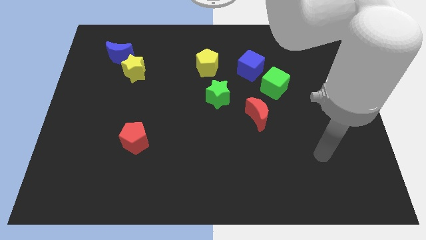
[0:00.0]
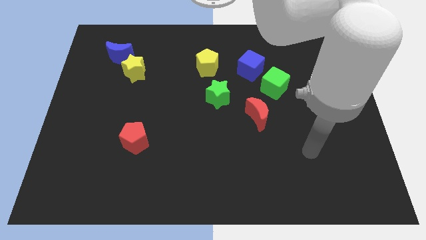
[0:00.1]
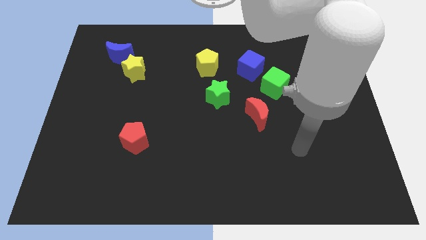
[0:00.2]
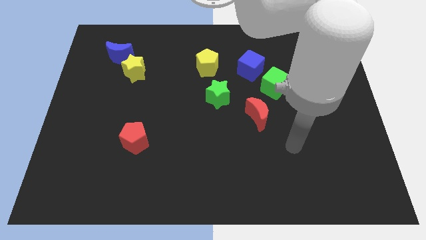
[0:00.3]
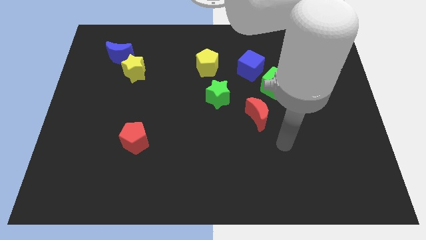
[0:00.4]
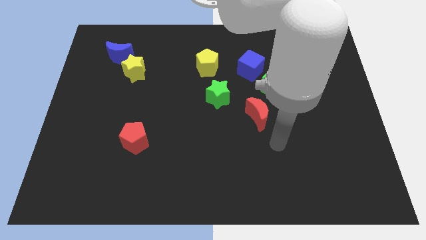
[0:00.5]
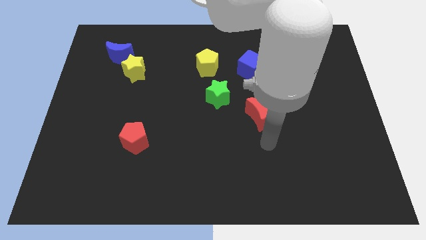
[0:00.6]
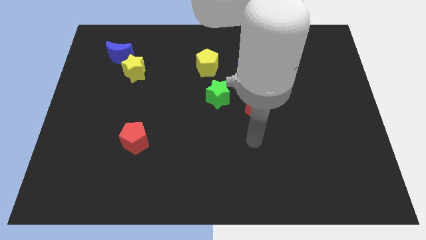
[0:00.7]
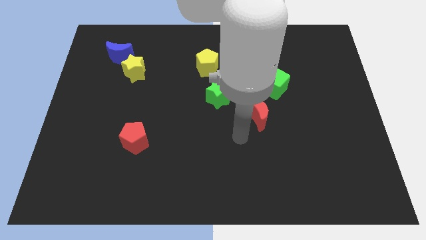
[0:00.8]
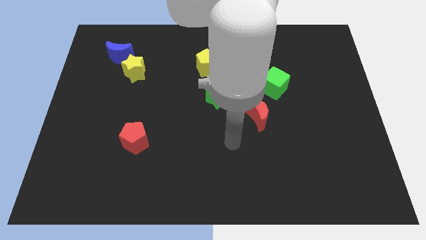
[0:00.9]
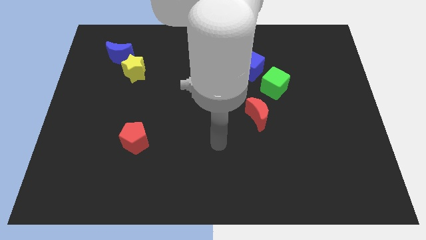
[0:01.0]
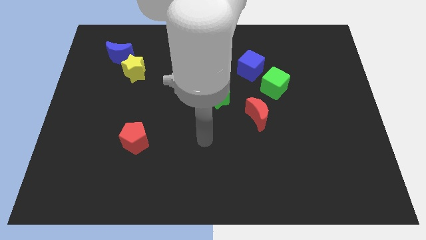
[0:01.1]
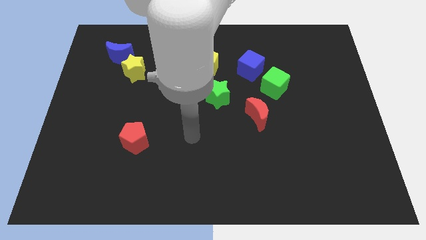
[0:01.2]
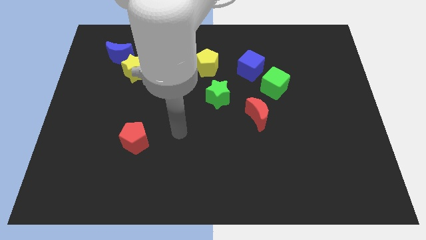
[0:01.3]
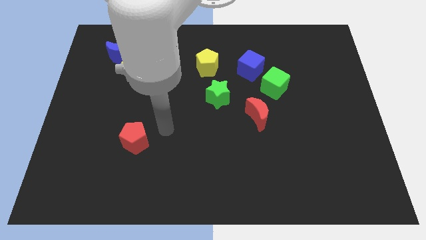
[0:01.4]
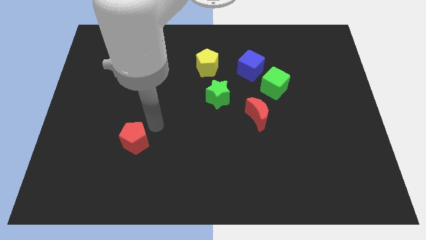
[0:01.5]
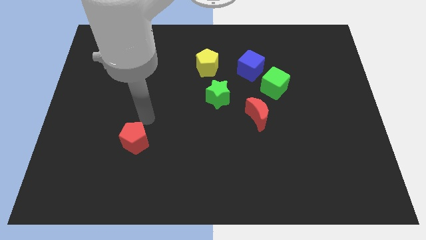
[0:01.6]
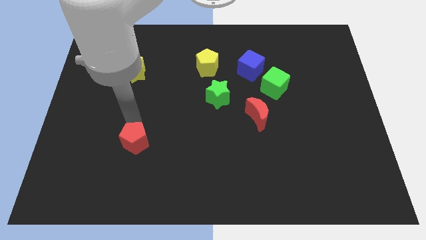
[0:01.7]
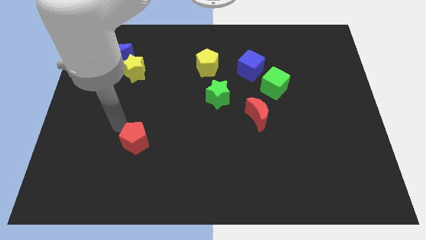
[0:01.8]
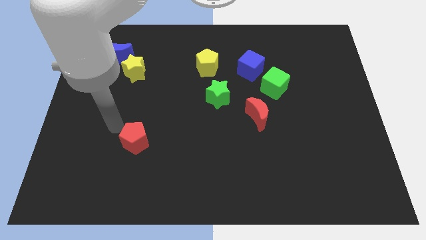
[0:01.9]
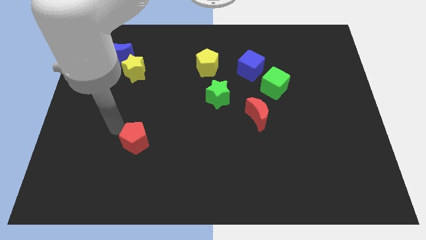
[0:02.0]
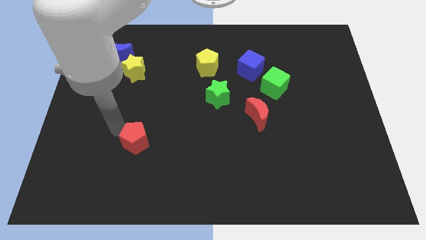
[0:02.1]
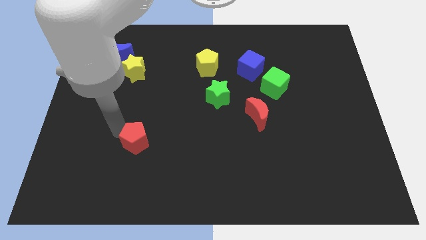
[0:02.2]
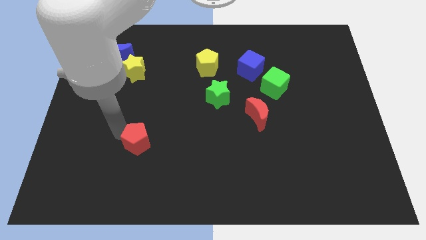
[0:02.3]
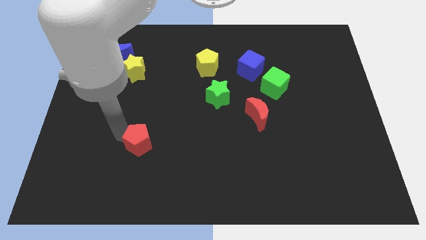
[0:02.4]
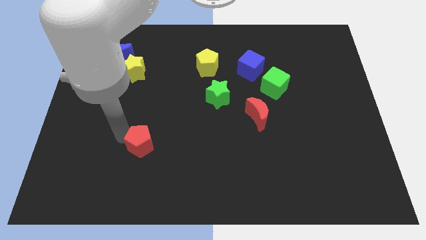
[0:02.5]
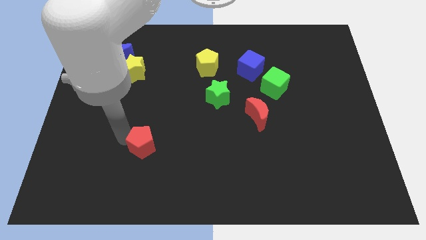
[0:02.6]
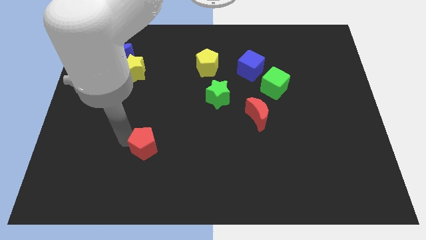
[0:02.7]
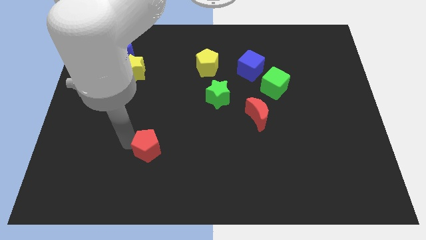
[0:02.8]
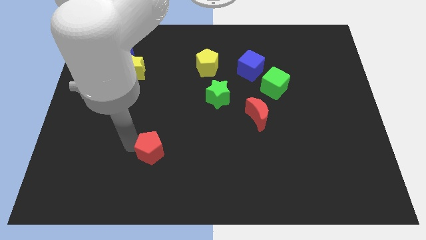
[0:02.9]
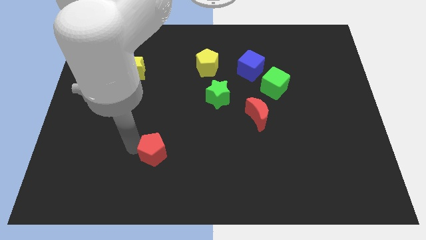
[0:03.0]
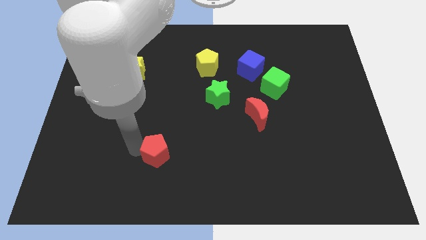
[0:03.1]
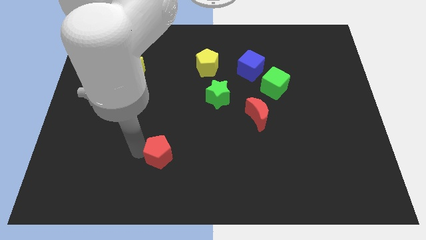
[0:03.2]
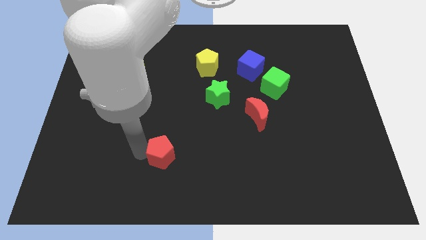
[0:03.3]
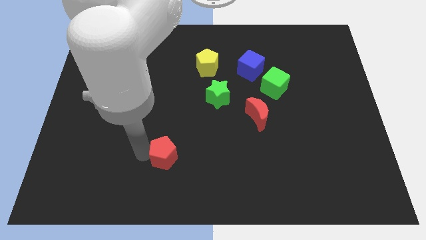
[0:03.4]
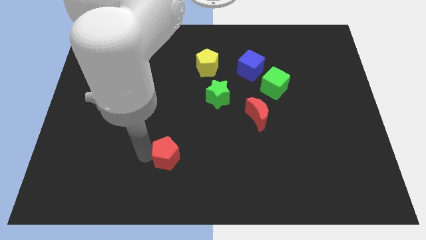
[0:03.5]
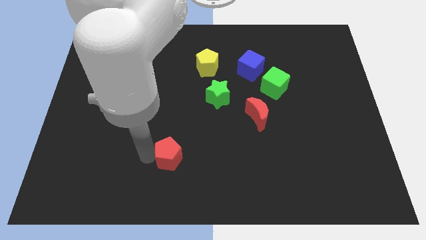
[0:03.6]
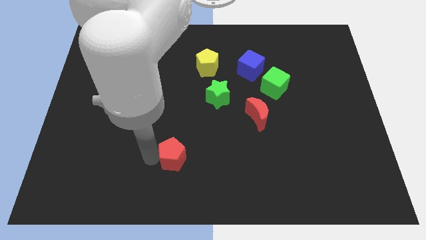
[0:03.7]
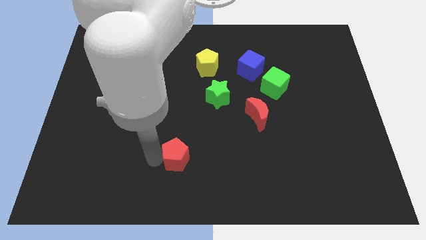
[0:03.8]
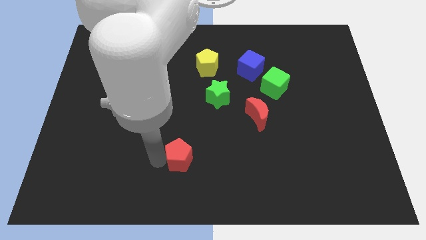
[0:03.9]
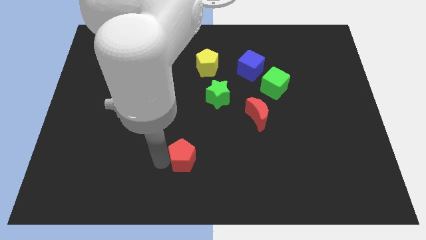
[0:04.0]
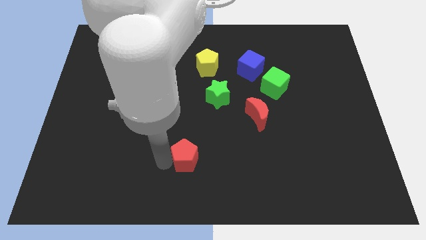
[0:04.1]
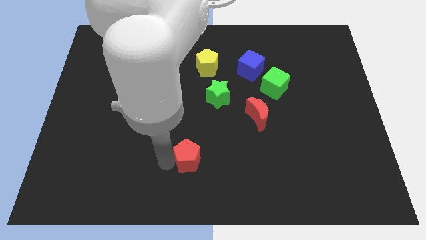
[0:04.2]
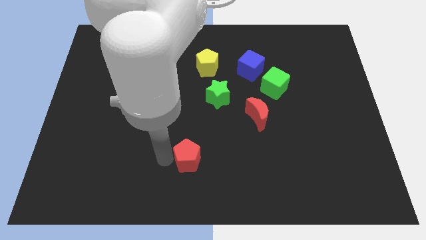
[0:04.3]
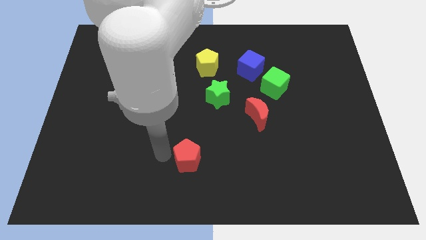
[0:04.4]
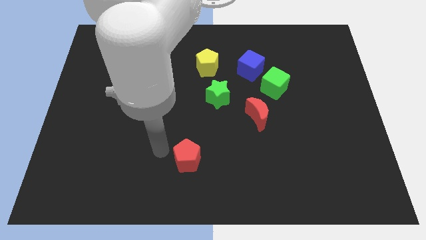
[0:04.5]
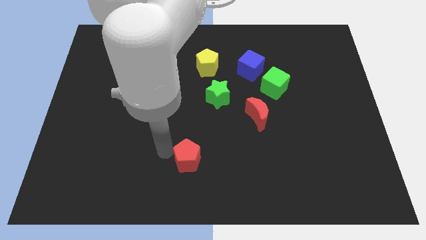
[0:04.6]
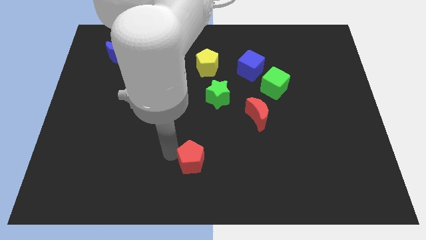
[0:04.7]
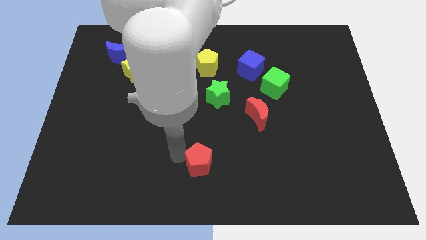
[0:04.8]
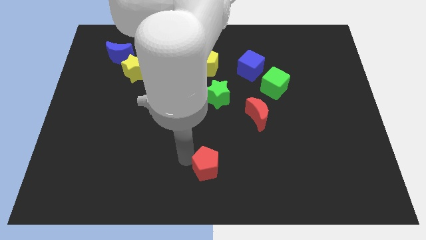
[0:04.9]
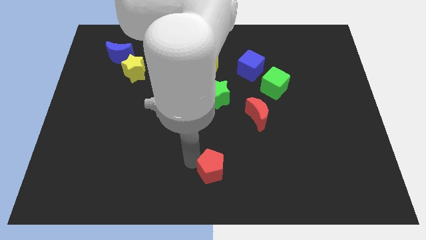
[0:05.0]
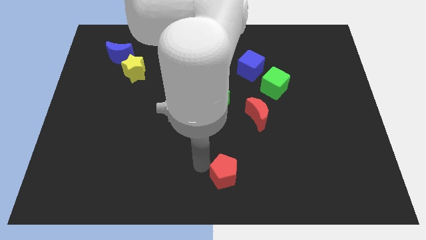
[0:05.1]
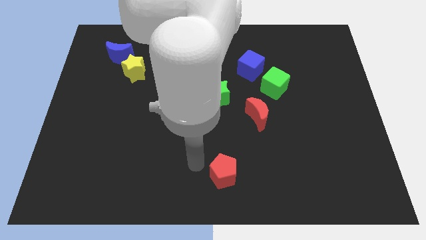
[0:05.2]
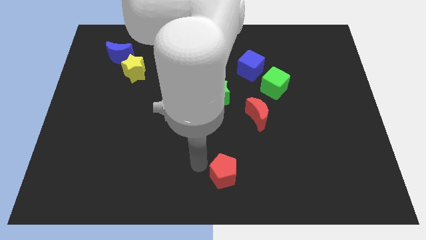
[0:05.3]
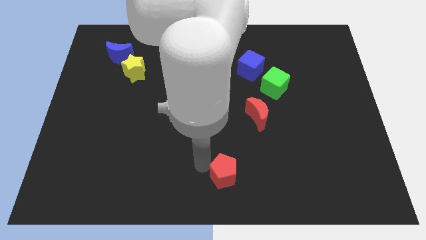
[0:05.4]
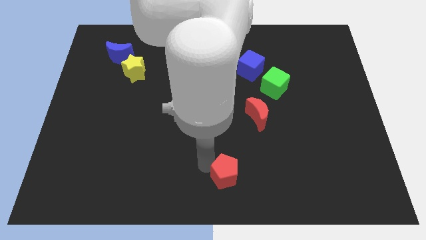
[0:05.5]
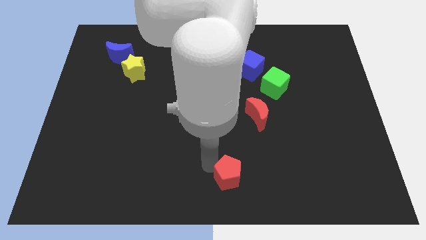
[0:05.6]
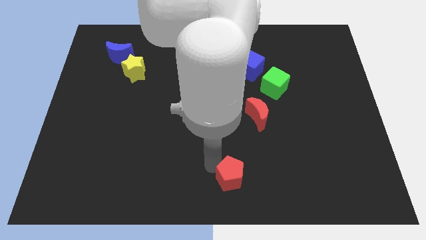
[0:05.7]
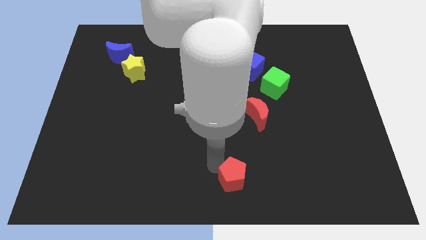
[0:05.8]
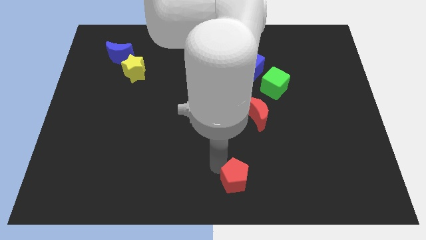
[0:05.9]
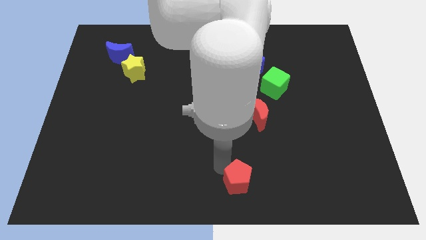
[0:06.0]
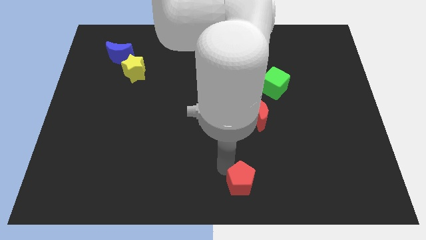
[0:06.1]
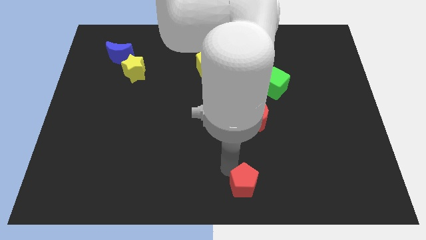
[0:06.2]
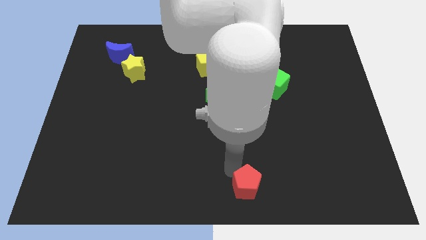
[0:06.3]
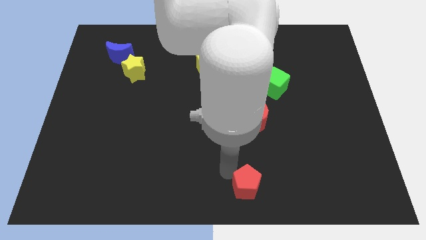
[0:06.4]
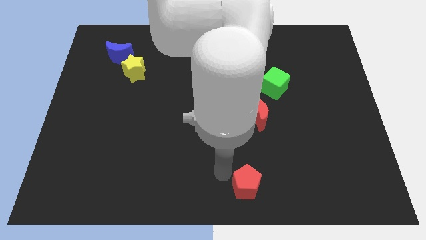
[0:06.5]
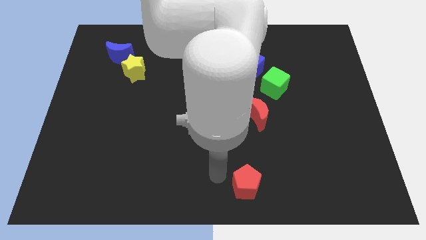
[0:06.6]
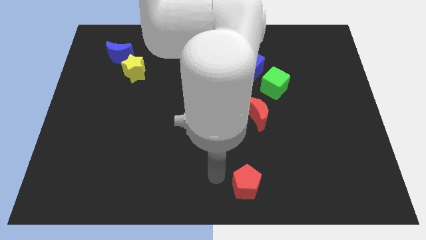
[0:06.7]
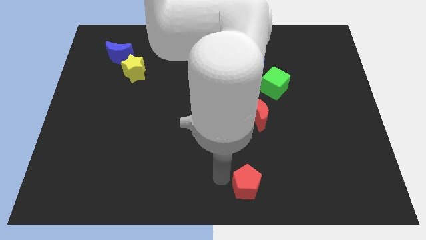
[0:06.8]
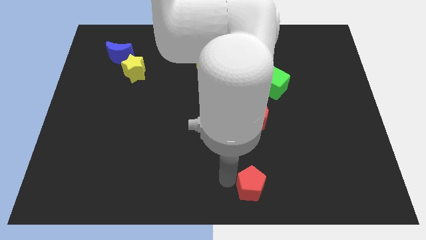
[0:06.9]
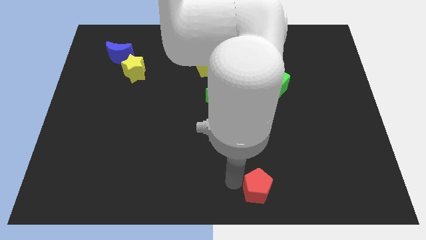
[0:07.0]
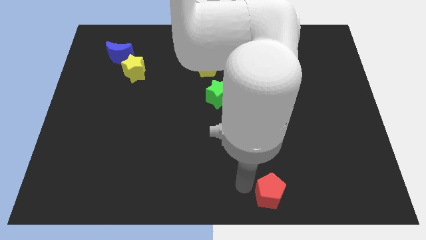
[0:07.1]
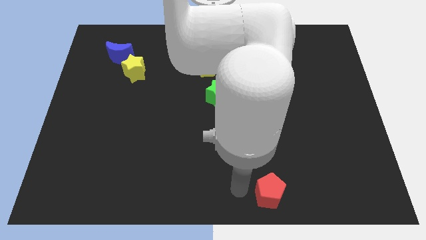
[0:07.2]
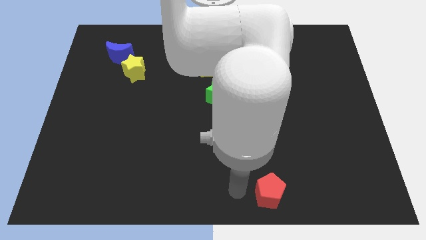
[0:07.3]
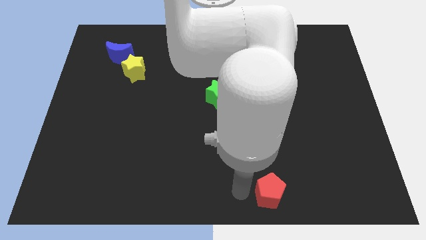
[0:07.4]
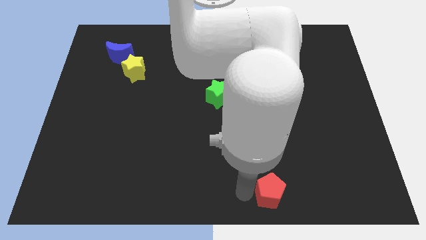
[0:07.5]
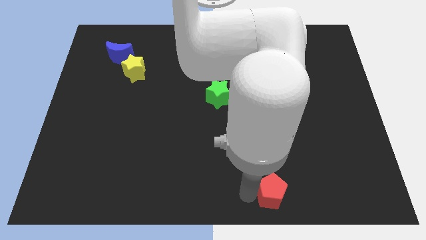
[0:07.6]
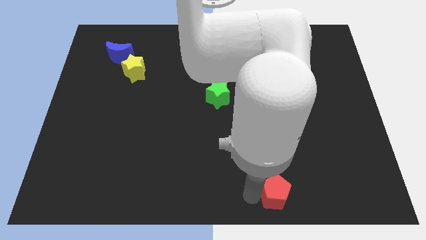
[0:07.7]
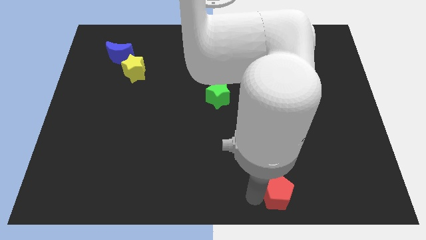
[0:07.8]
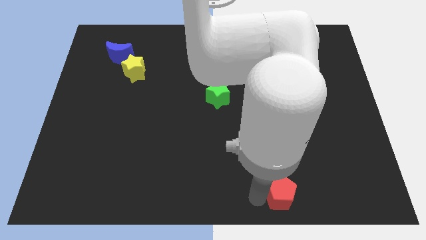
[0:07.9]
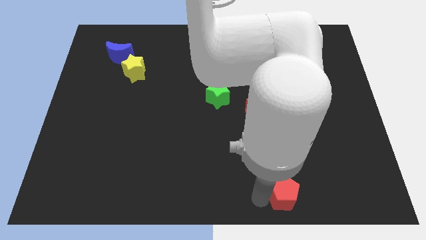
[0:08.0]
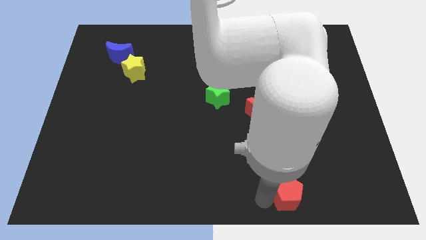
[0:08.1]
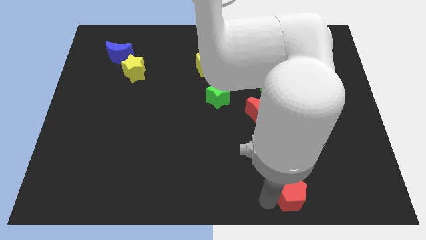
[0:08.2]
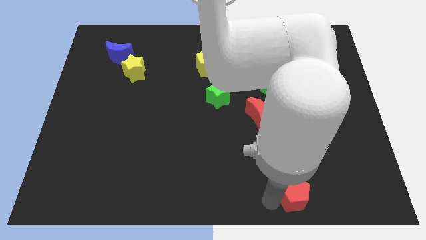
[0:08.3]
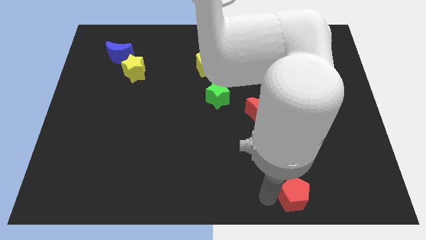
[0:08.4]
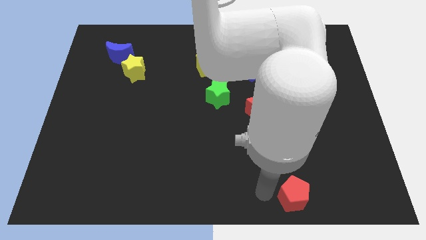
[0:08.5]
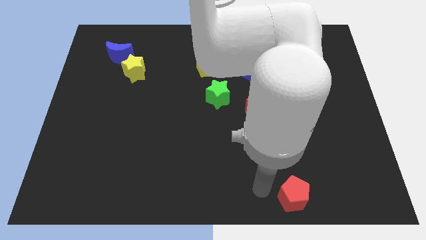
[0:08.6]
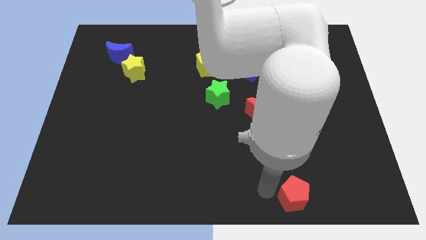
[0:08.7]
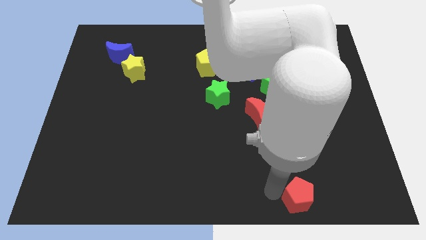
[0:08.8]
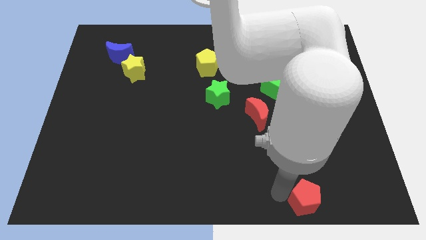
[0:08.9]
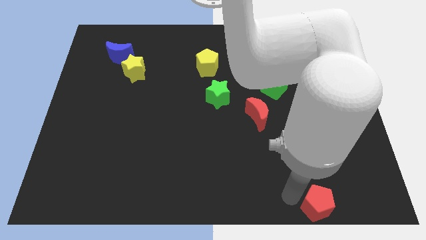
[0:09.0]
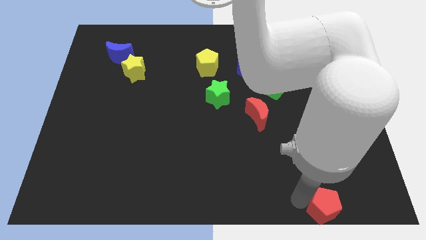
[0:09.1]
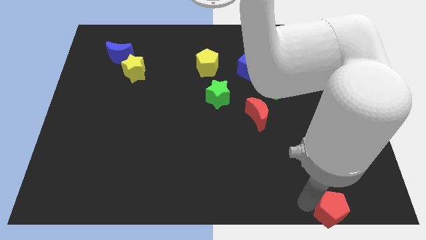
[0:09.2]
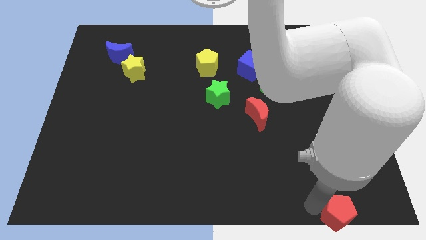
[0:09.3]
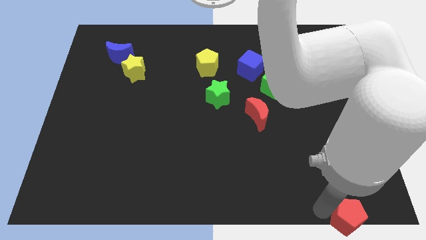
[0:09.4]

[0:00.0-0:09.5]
put the red pentagon to the lower right corner
